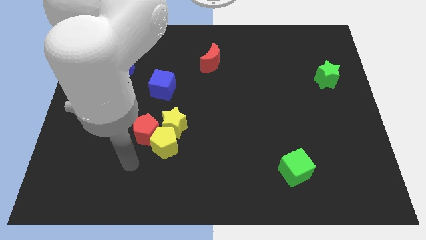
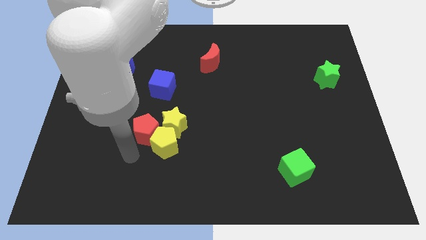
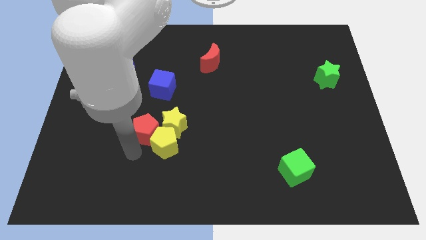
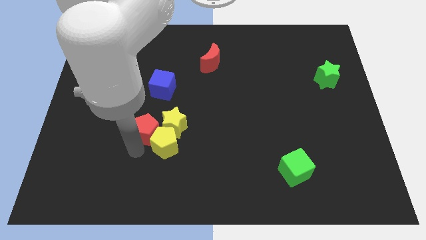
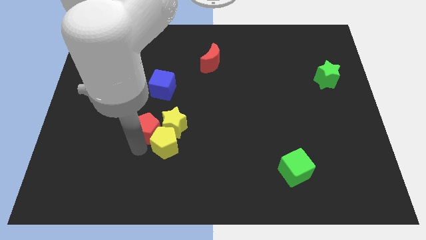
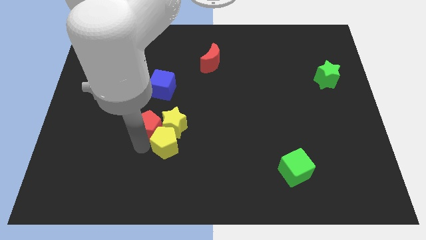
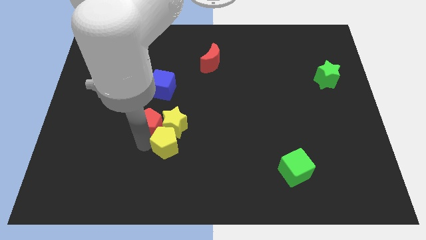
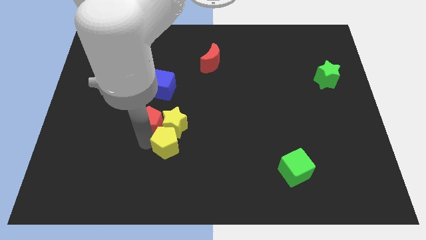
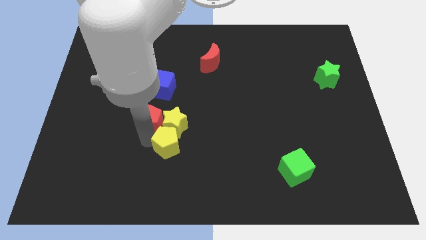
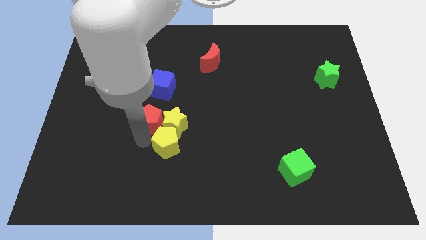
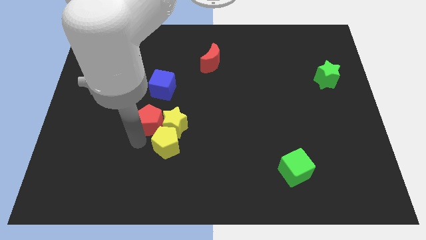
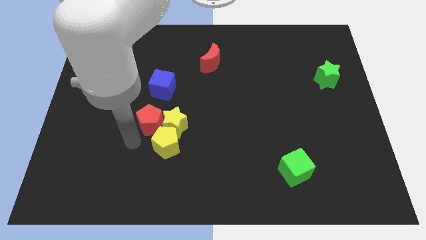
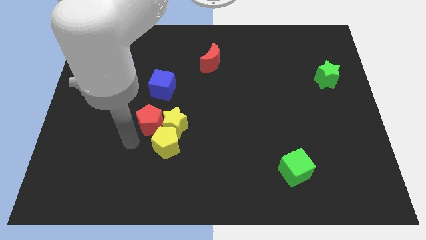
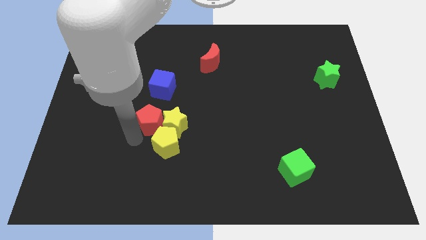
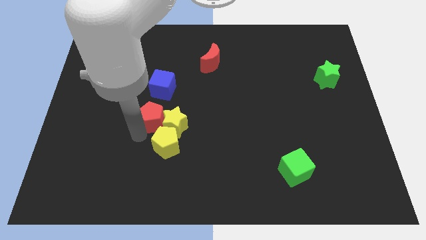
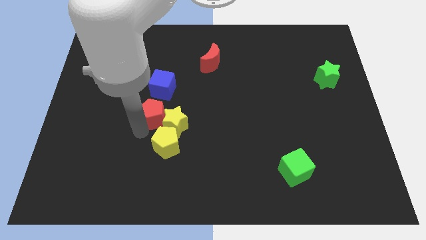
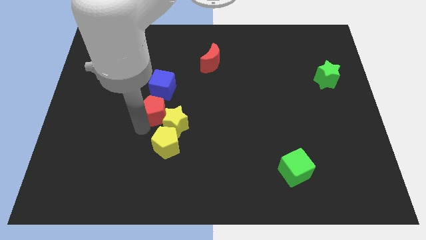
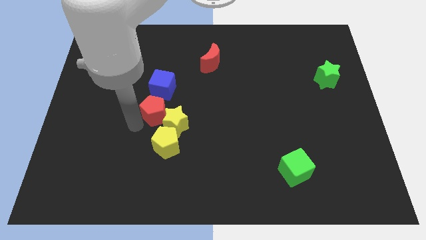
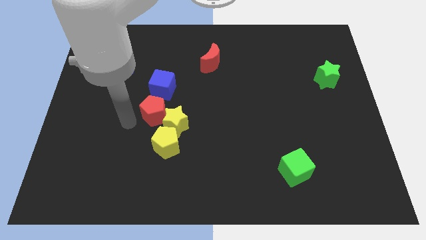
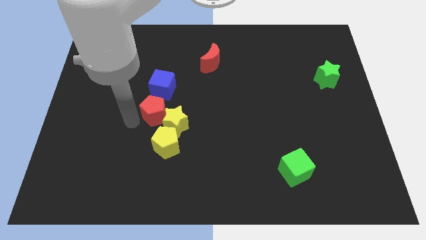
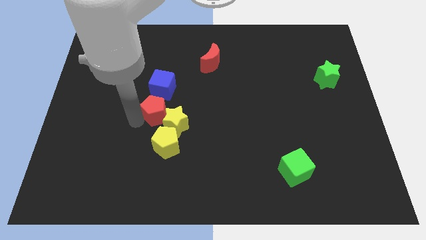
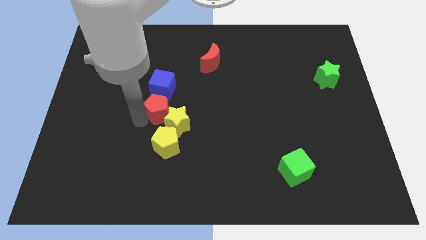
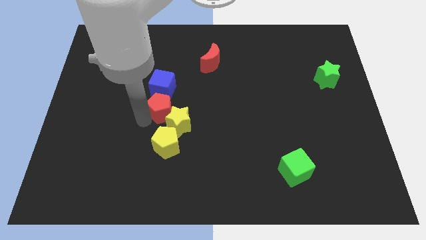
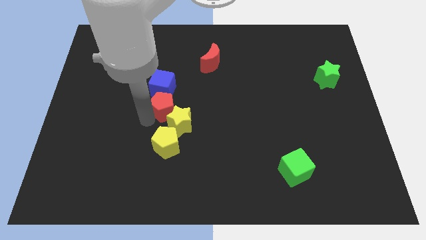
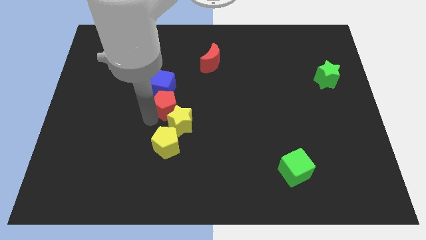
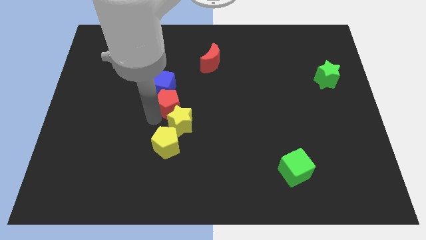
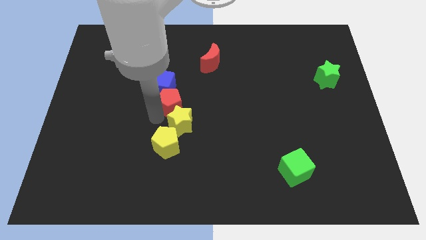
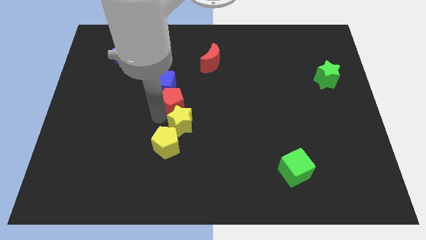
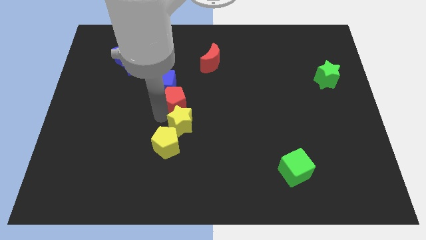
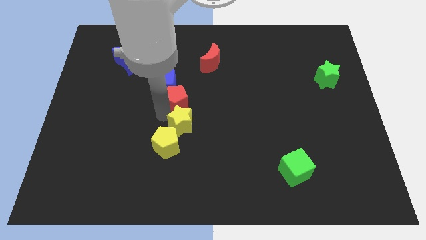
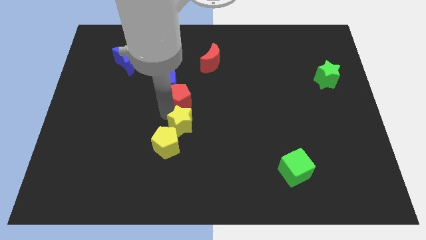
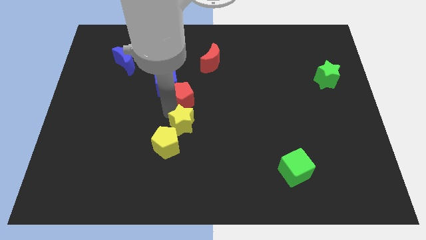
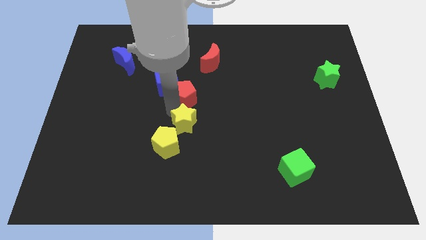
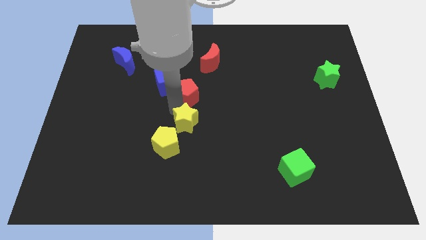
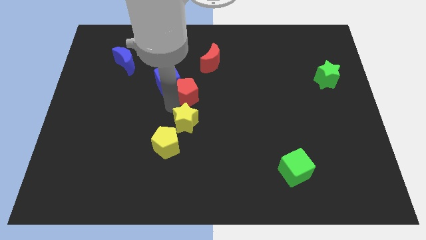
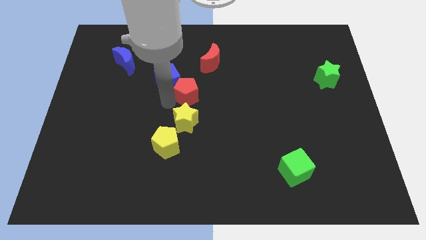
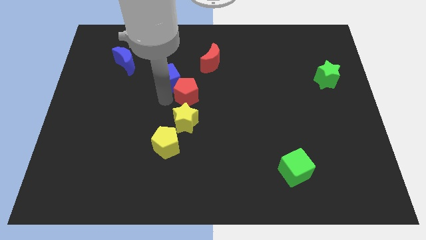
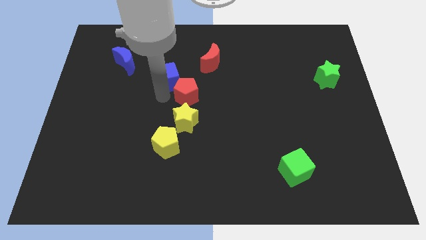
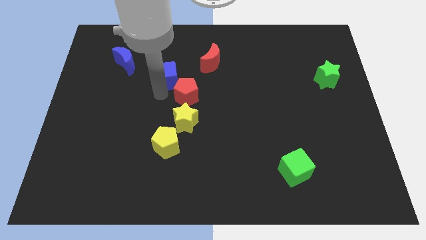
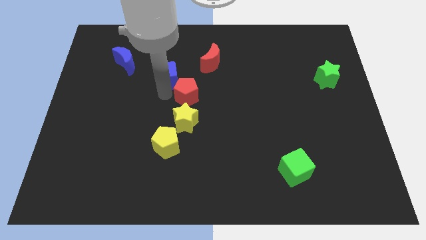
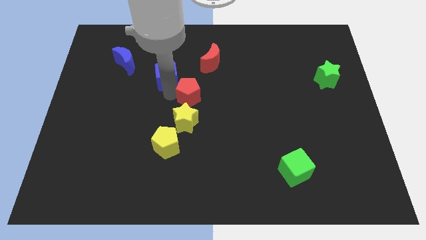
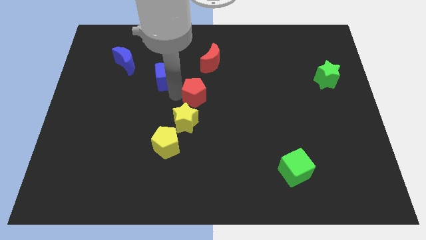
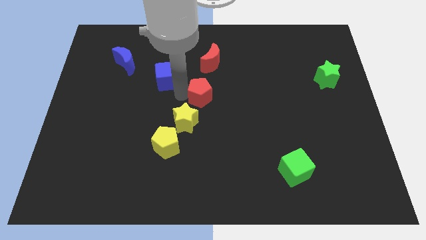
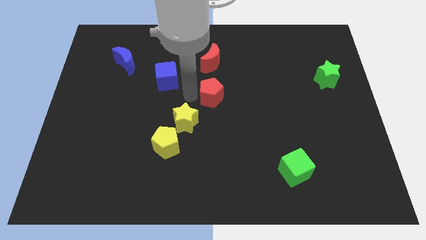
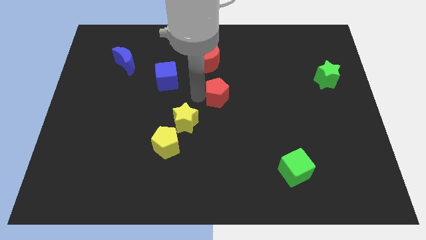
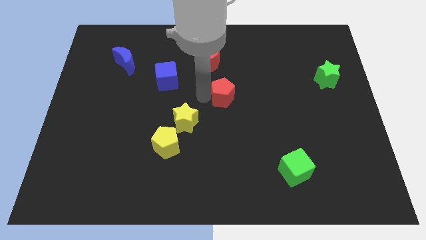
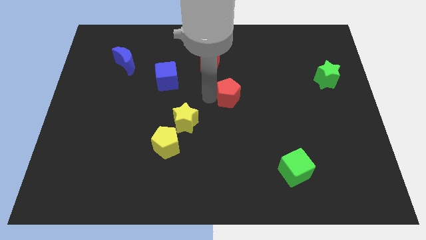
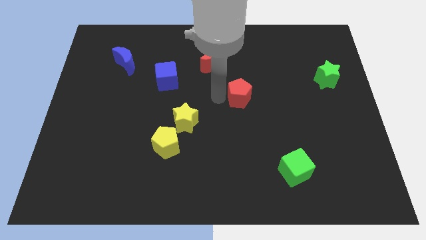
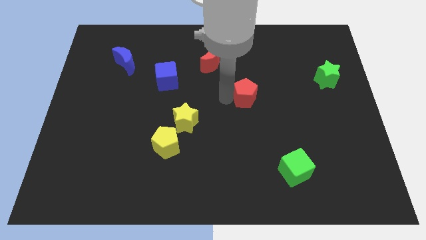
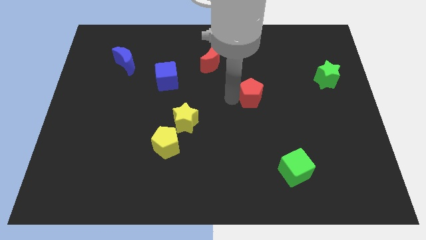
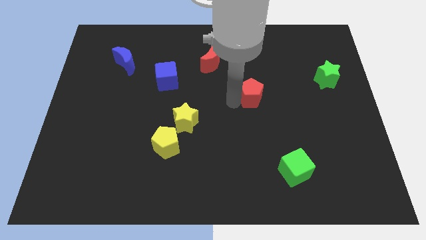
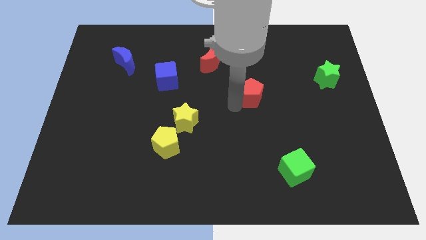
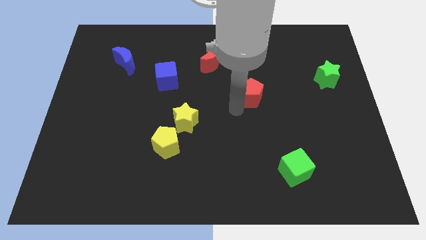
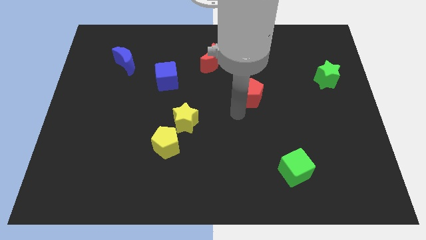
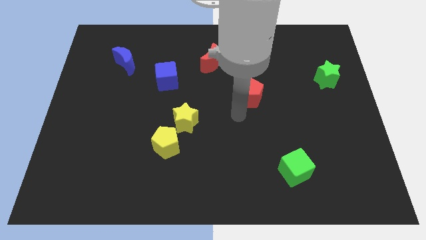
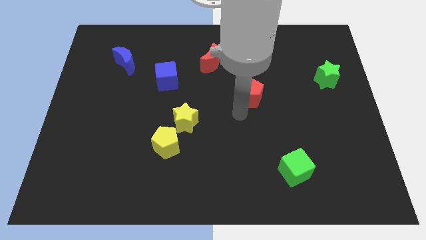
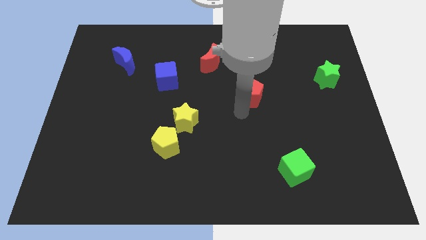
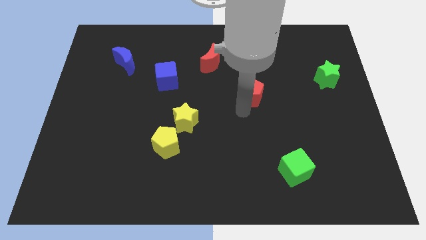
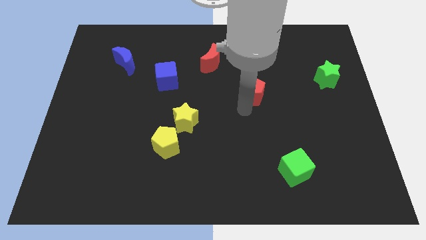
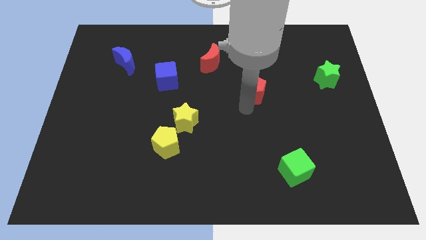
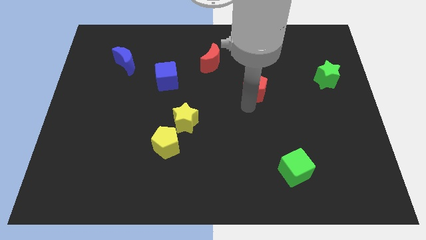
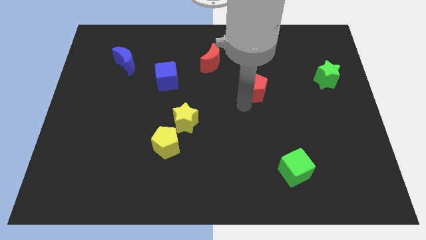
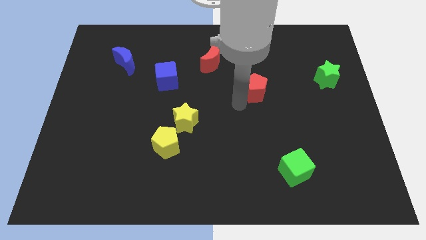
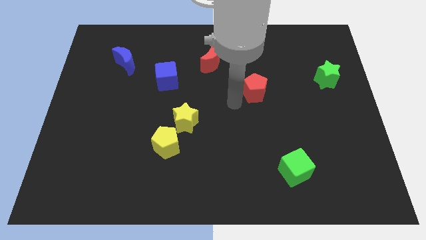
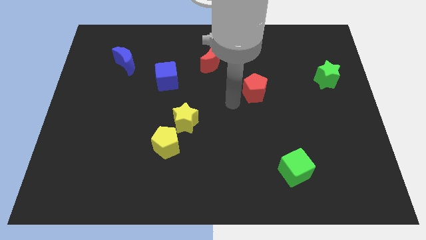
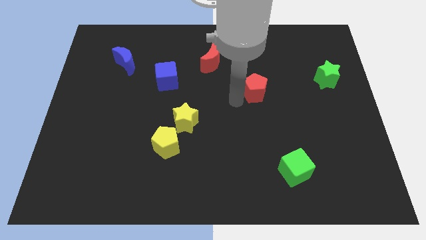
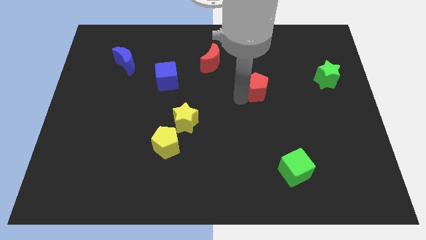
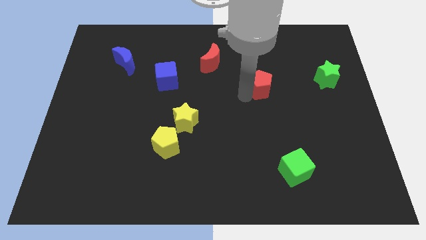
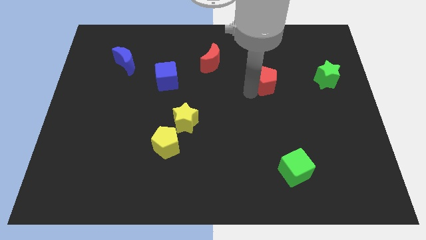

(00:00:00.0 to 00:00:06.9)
slide the red pentagon to the left of the green star
